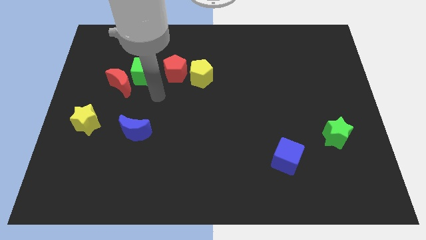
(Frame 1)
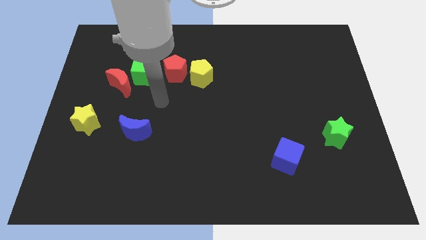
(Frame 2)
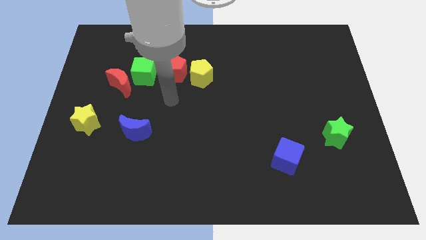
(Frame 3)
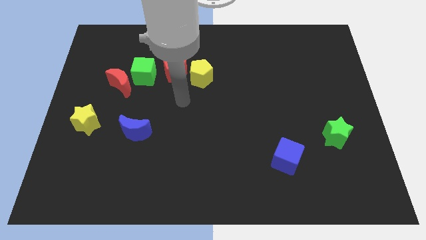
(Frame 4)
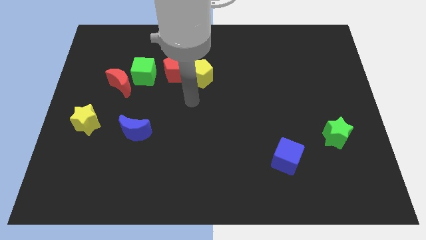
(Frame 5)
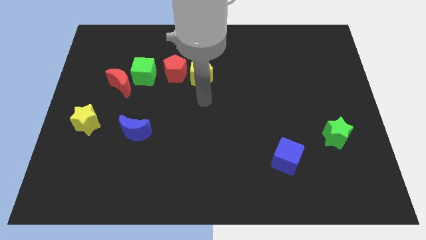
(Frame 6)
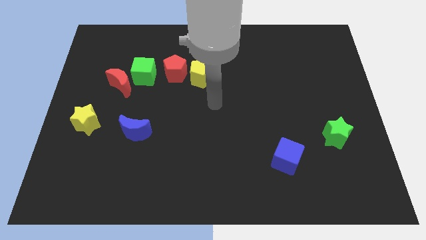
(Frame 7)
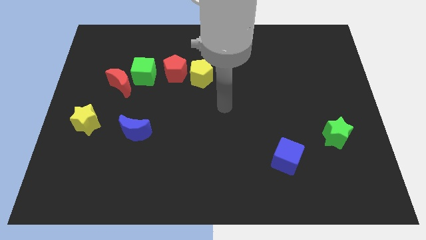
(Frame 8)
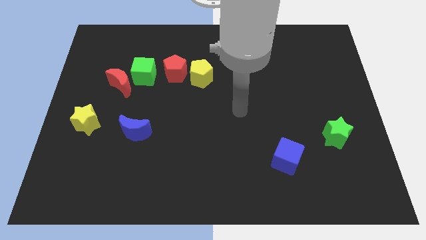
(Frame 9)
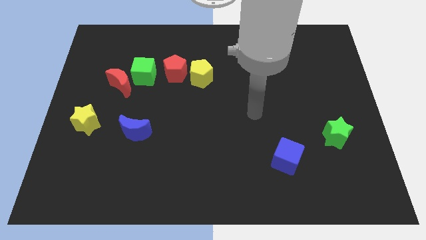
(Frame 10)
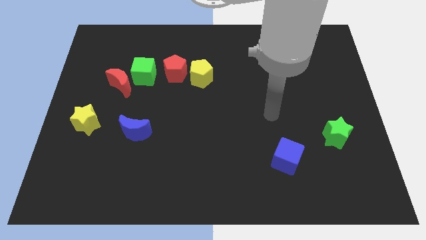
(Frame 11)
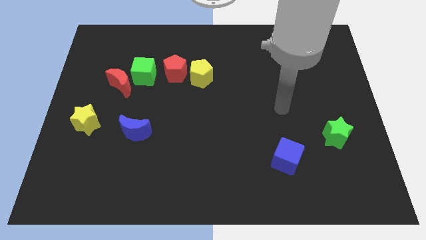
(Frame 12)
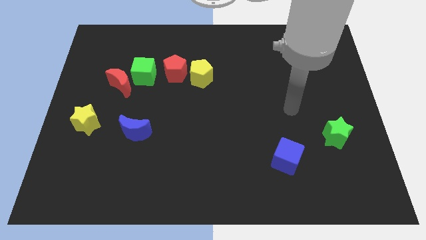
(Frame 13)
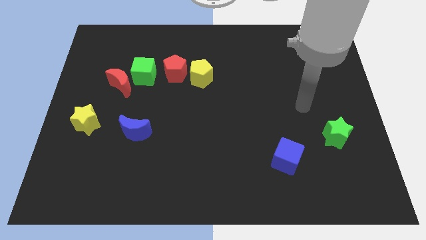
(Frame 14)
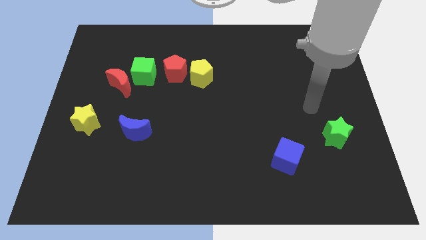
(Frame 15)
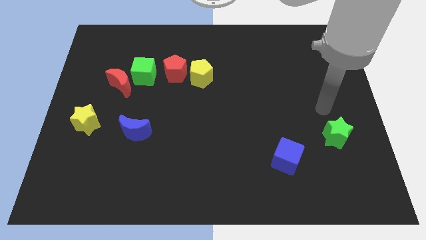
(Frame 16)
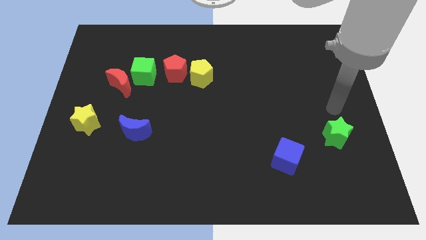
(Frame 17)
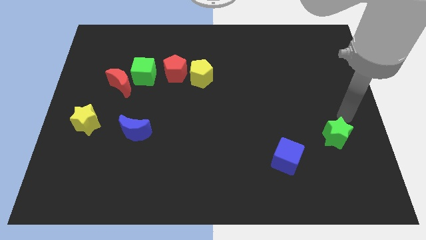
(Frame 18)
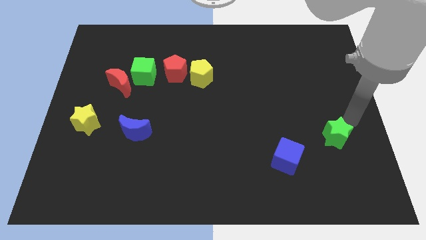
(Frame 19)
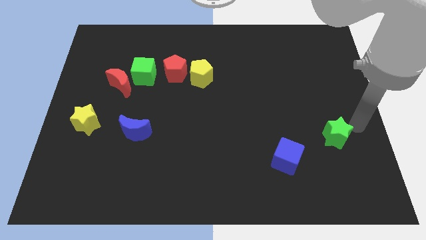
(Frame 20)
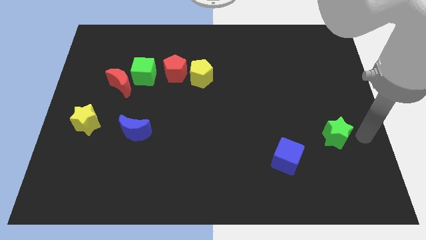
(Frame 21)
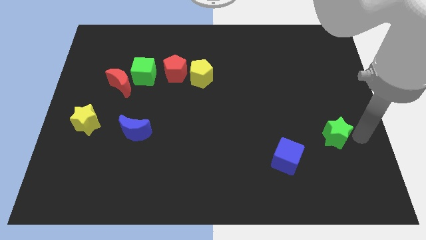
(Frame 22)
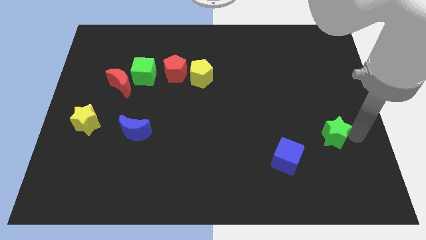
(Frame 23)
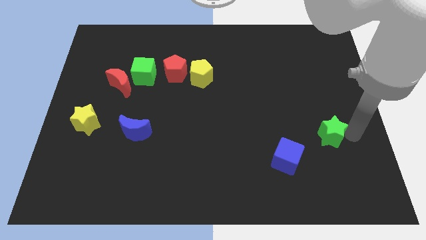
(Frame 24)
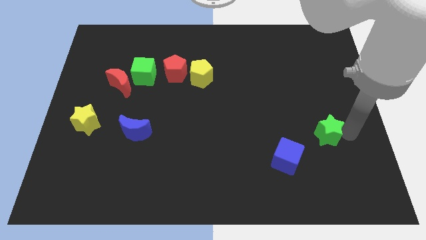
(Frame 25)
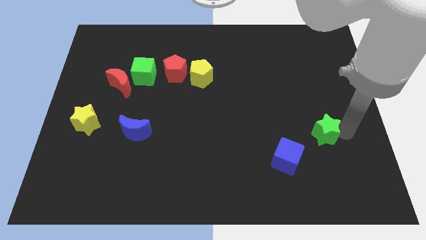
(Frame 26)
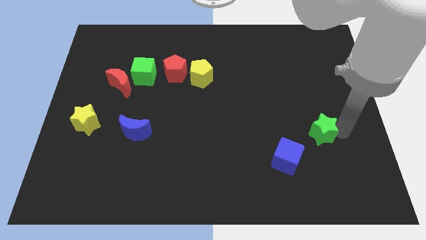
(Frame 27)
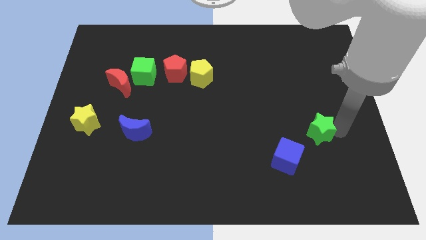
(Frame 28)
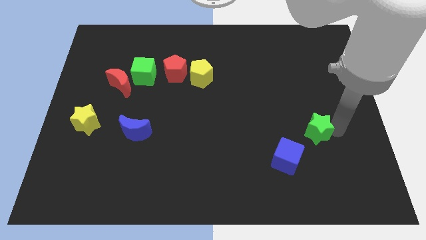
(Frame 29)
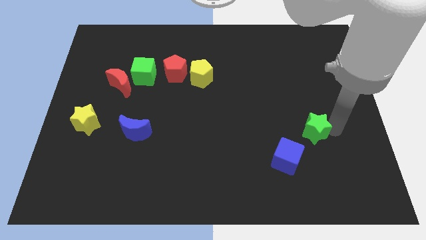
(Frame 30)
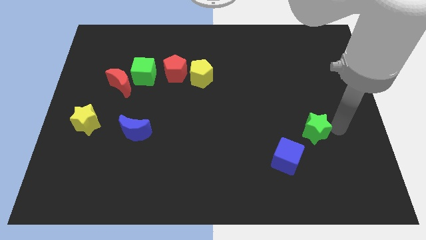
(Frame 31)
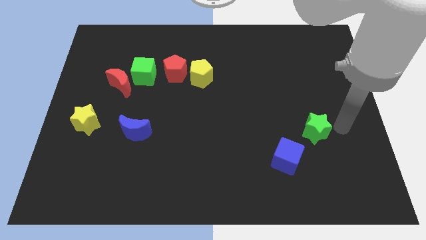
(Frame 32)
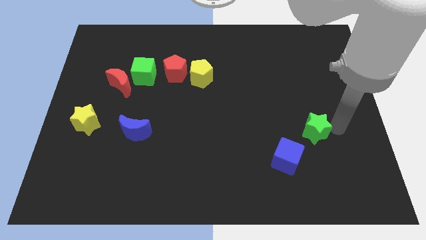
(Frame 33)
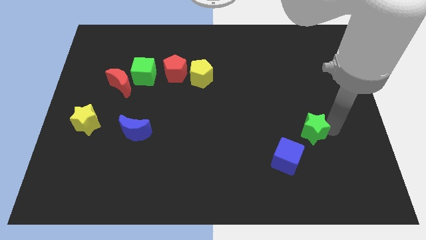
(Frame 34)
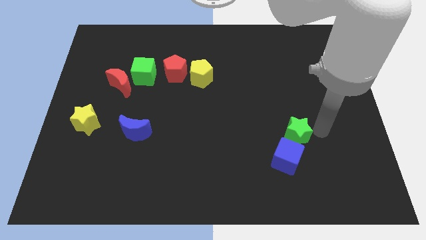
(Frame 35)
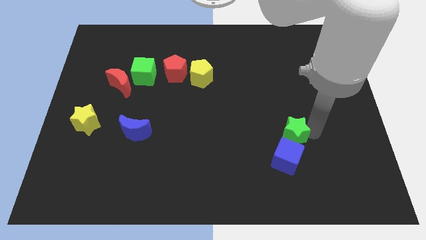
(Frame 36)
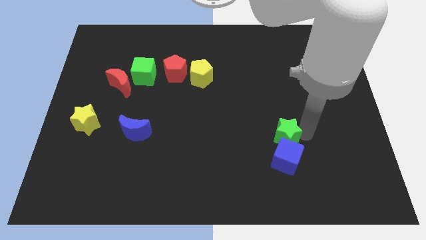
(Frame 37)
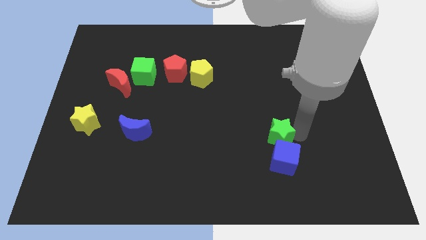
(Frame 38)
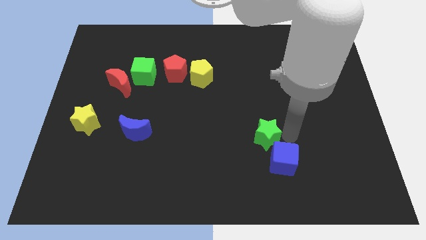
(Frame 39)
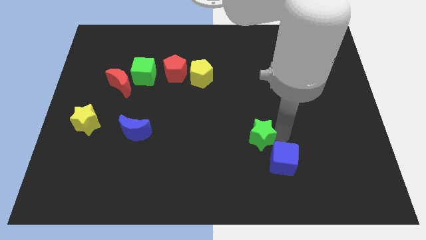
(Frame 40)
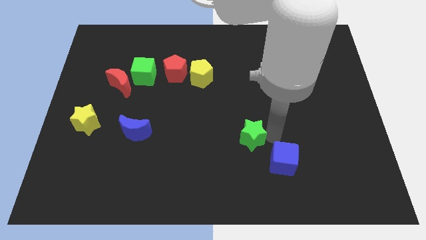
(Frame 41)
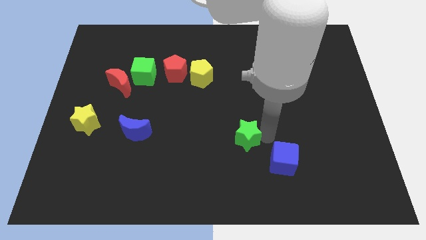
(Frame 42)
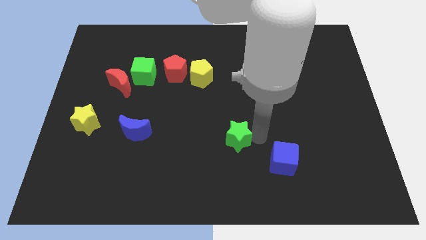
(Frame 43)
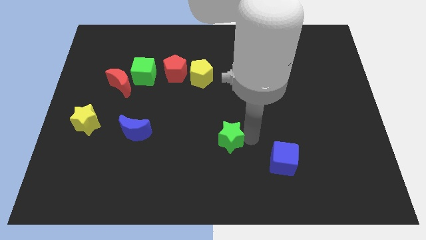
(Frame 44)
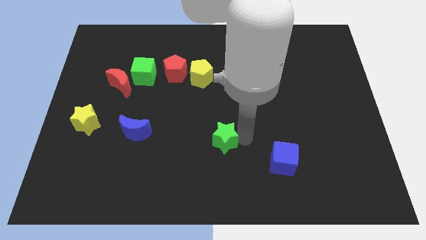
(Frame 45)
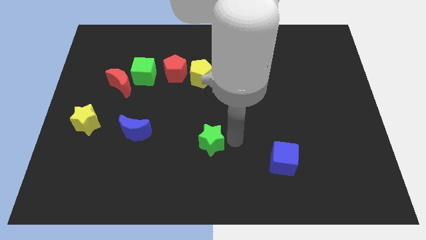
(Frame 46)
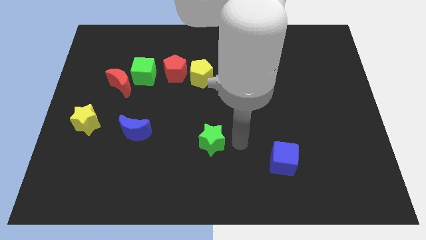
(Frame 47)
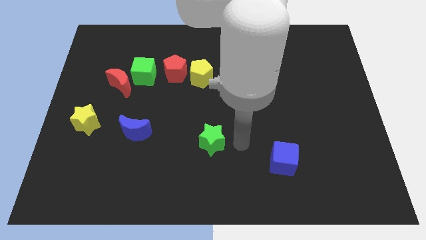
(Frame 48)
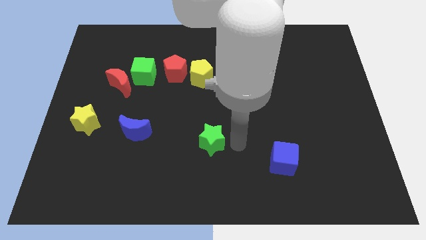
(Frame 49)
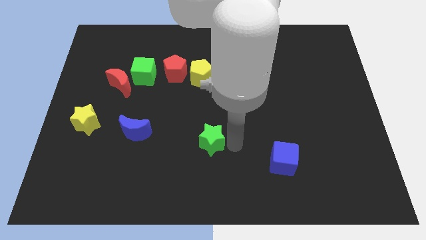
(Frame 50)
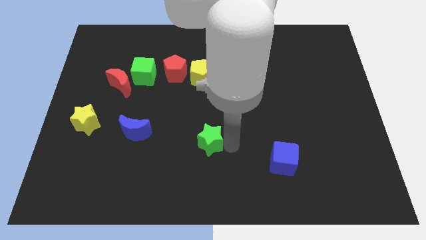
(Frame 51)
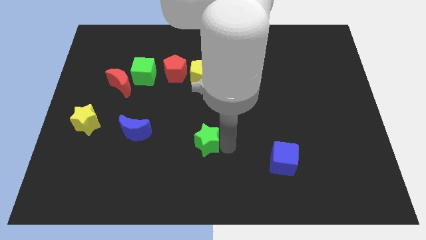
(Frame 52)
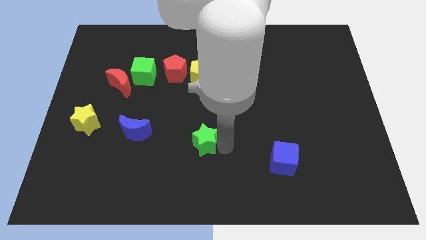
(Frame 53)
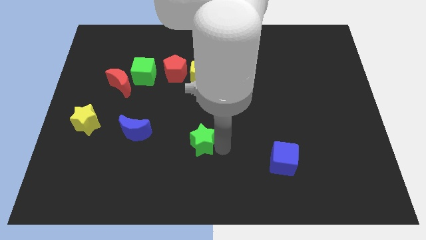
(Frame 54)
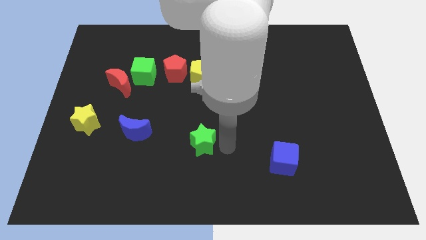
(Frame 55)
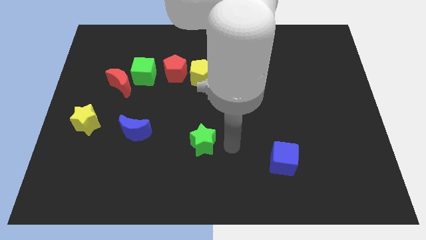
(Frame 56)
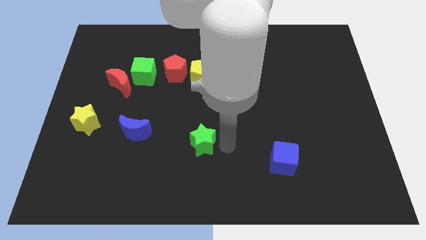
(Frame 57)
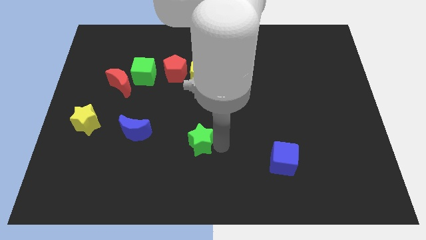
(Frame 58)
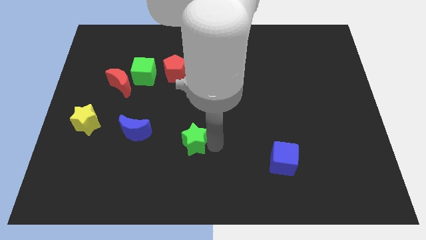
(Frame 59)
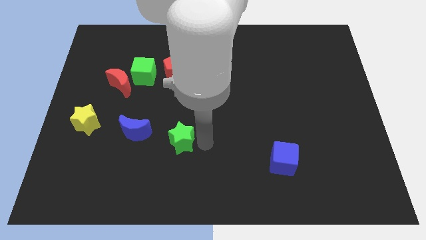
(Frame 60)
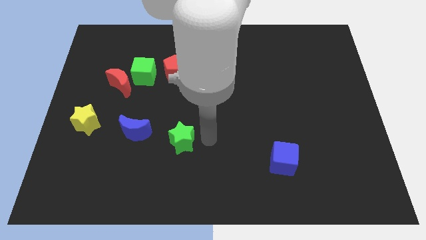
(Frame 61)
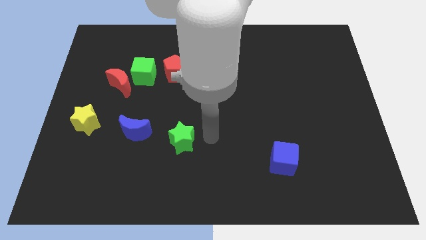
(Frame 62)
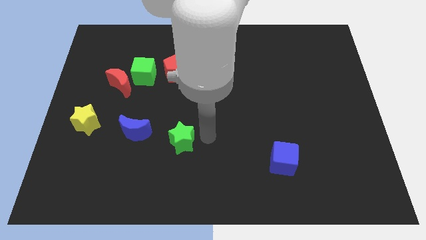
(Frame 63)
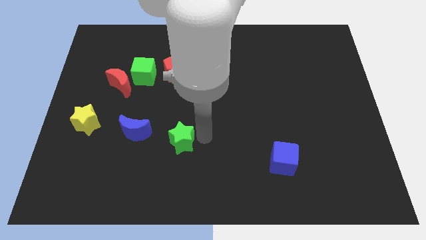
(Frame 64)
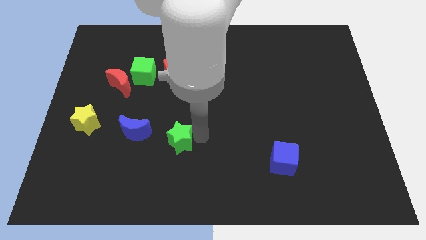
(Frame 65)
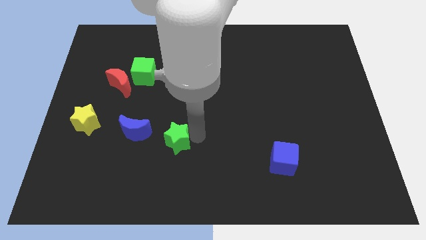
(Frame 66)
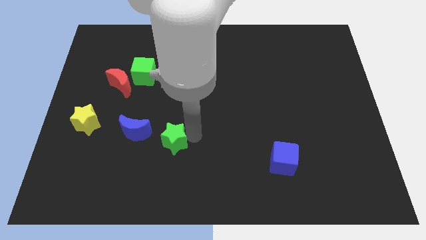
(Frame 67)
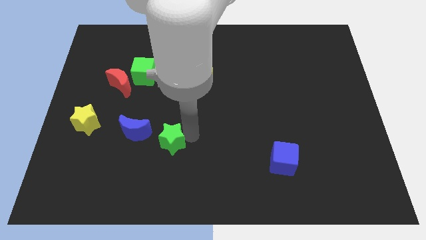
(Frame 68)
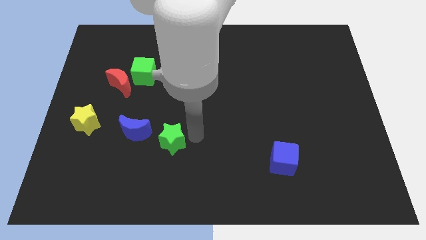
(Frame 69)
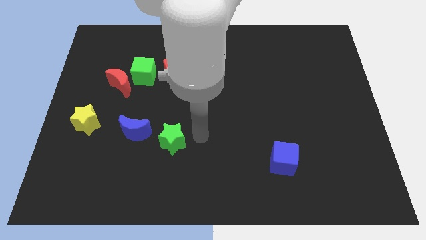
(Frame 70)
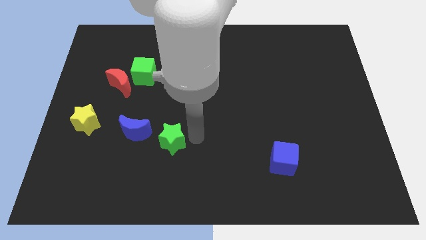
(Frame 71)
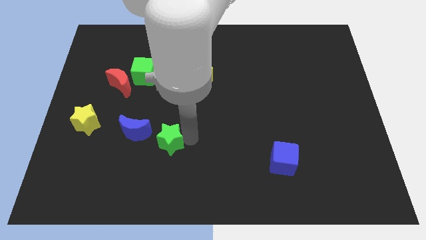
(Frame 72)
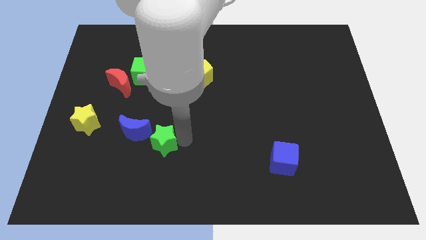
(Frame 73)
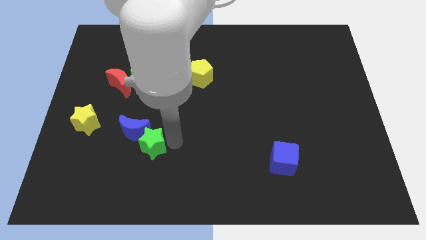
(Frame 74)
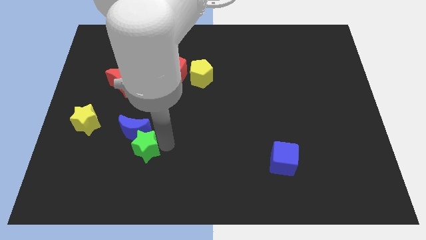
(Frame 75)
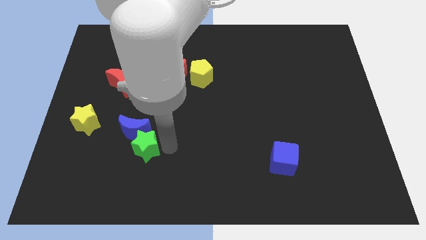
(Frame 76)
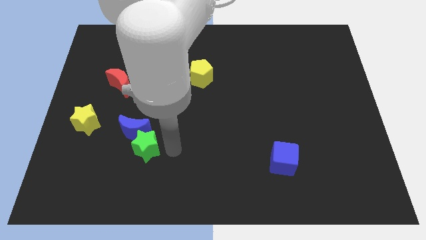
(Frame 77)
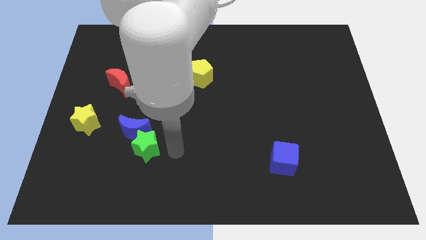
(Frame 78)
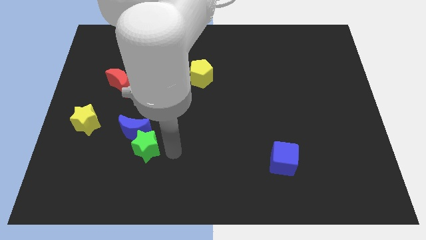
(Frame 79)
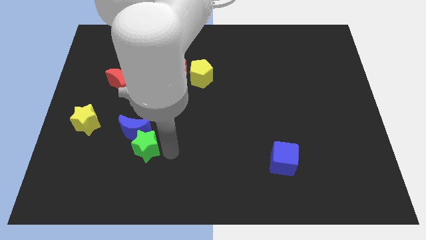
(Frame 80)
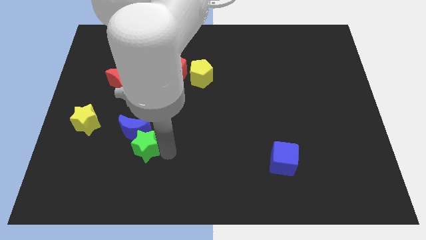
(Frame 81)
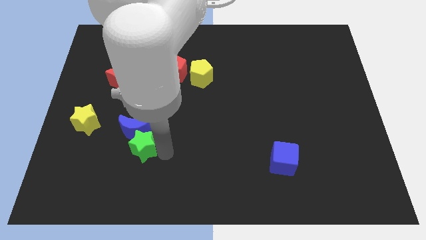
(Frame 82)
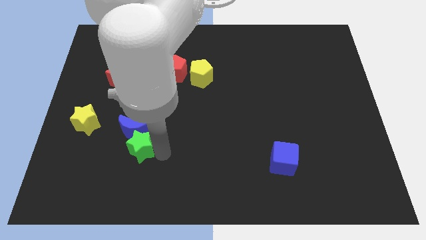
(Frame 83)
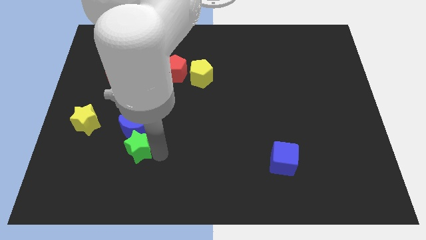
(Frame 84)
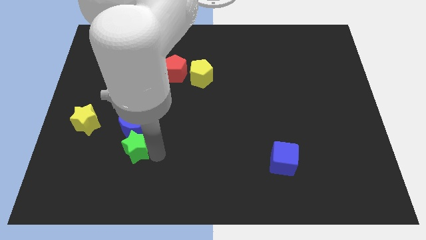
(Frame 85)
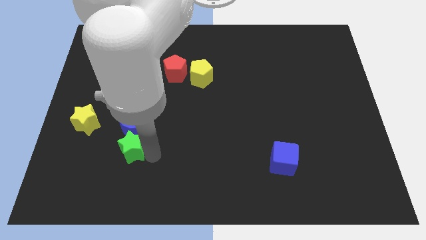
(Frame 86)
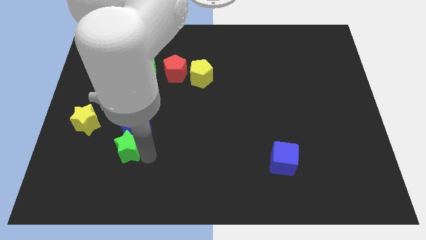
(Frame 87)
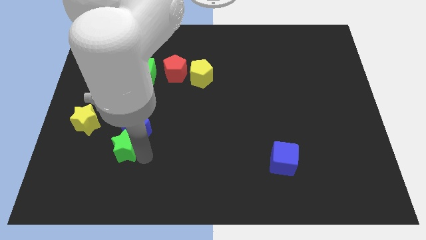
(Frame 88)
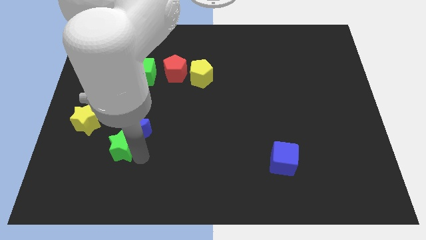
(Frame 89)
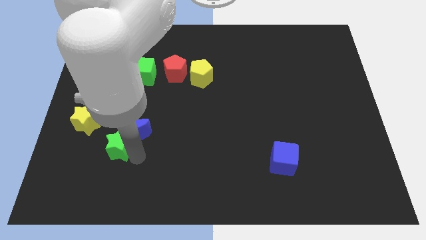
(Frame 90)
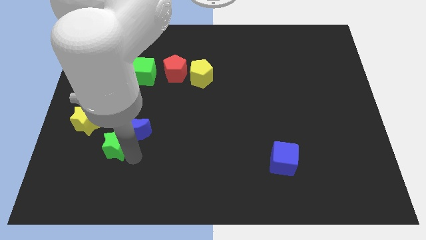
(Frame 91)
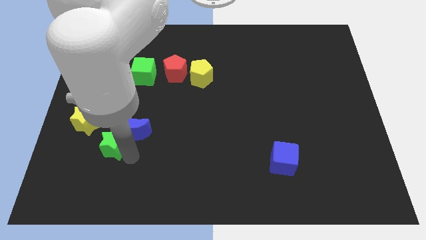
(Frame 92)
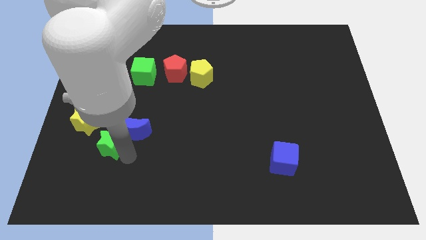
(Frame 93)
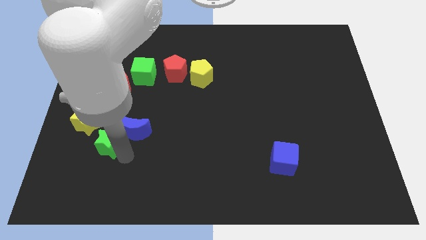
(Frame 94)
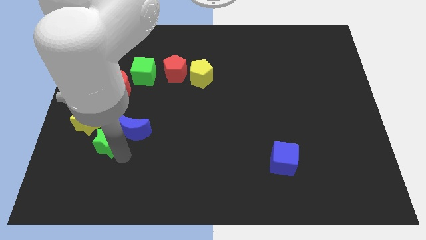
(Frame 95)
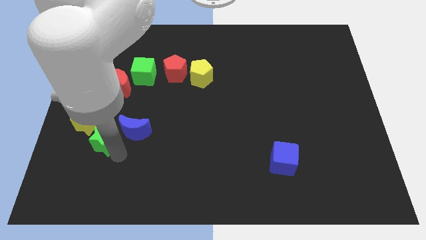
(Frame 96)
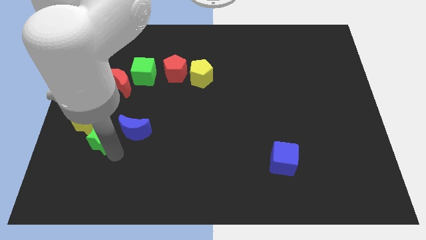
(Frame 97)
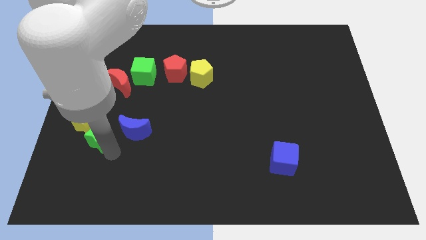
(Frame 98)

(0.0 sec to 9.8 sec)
push the green star next to the yellow star
